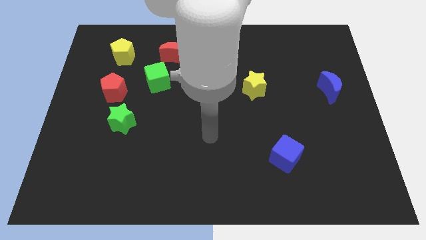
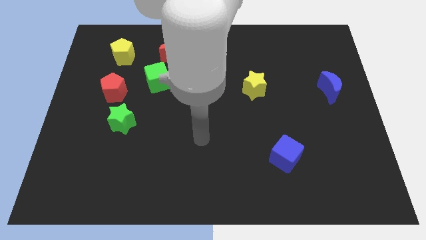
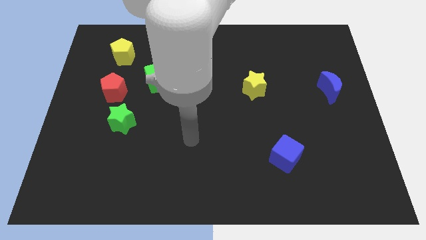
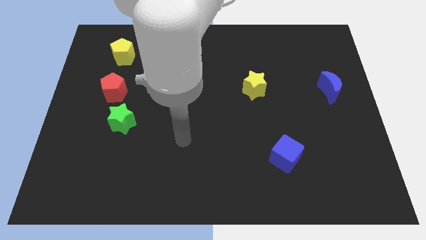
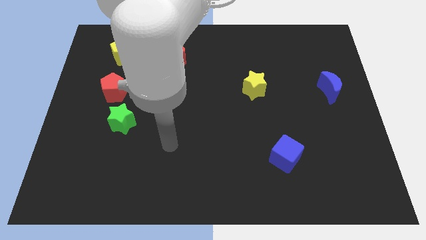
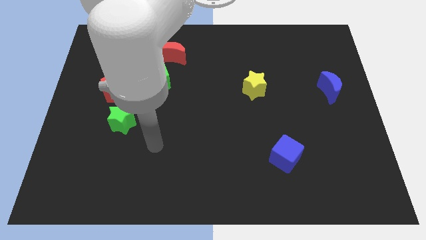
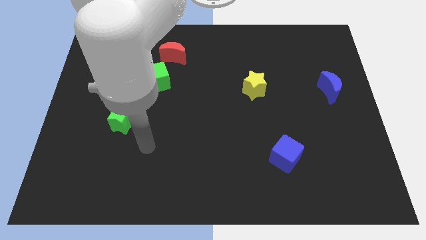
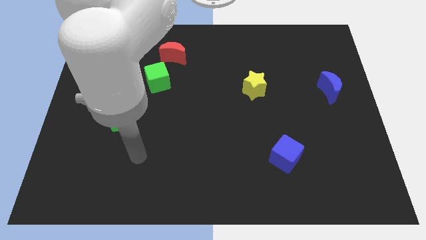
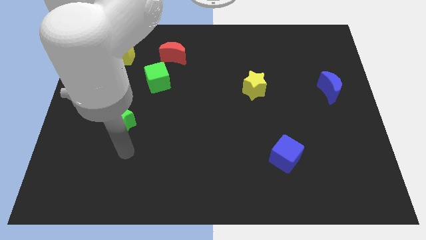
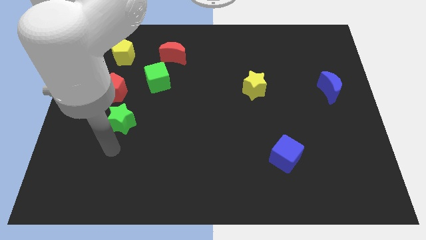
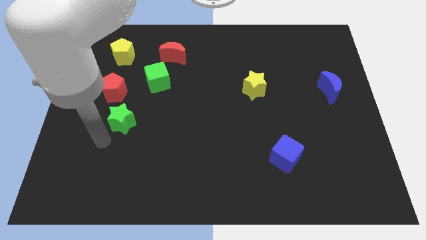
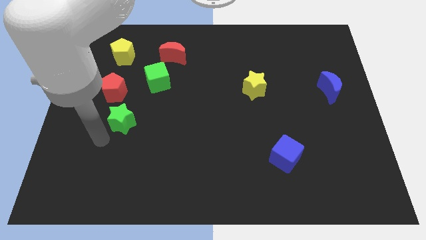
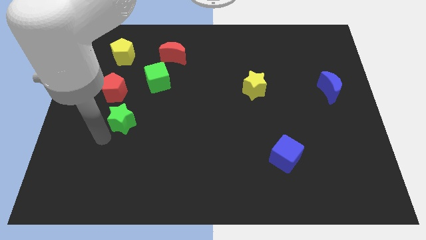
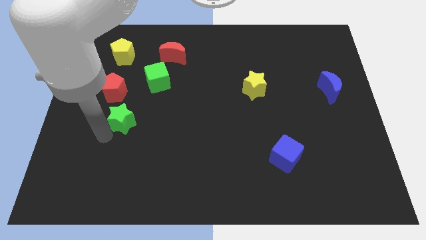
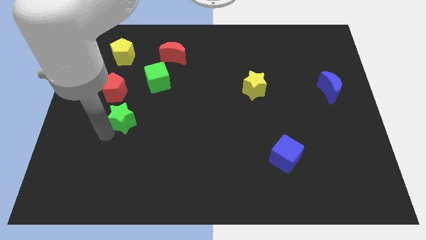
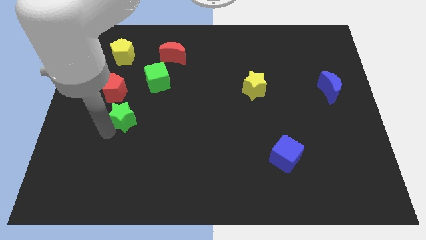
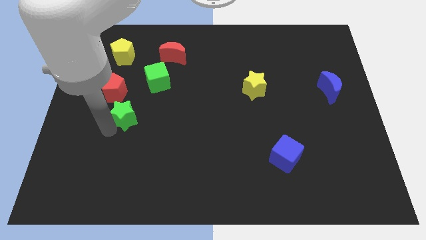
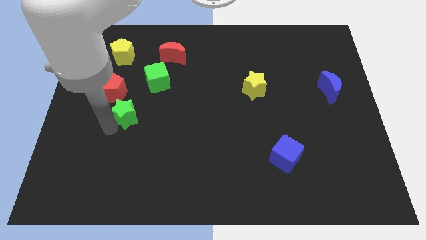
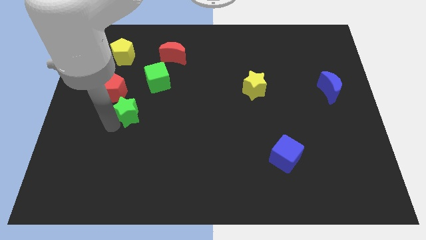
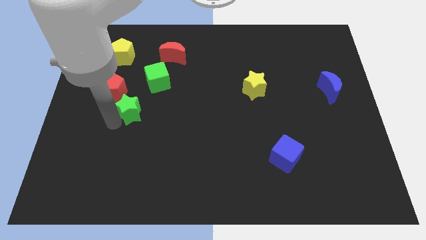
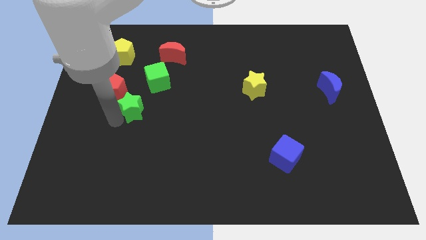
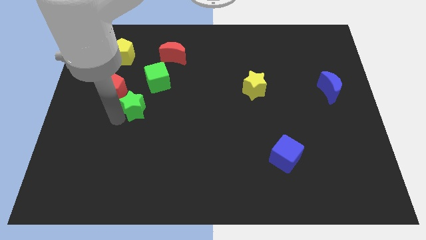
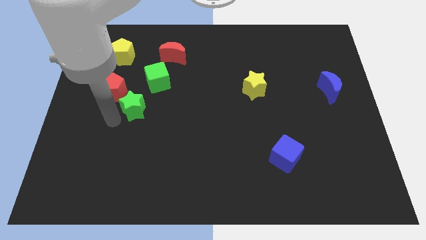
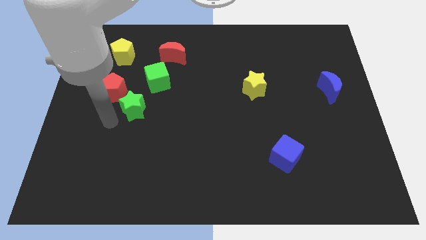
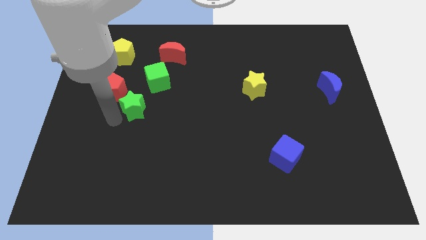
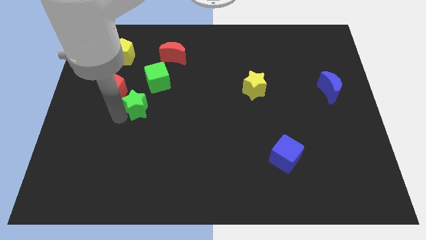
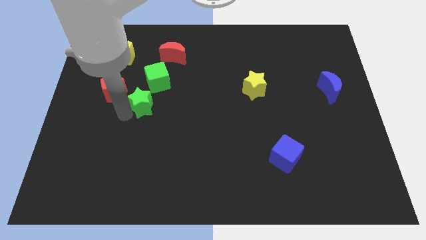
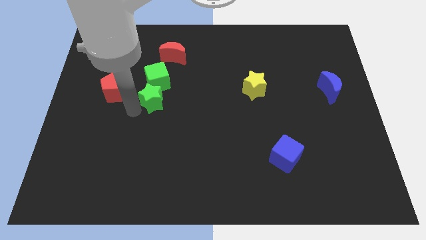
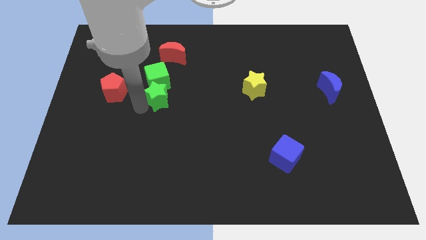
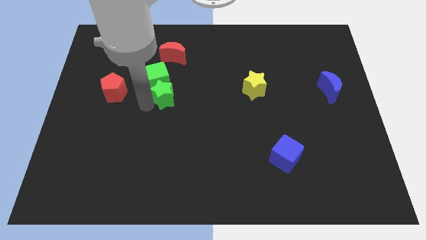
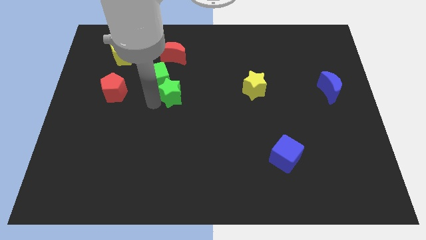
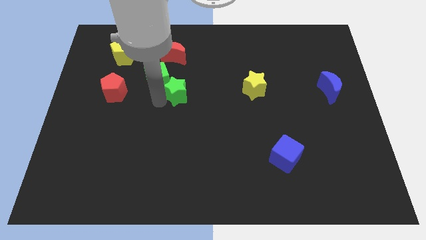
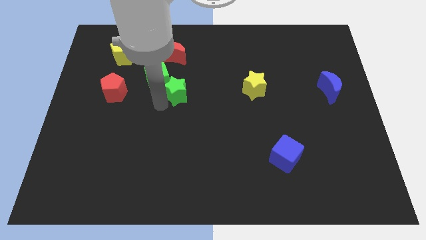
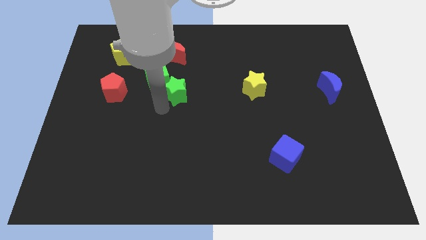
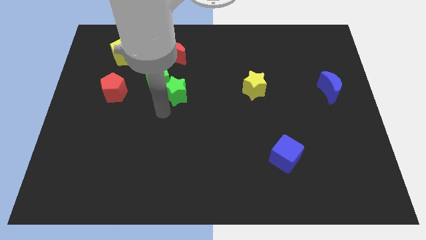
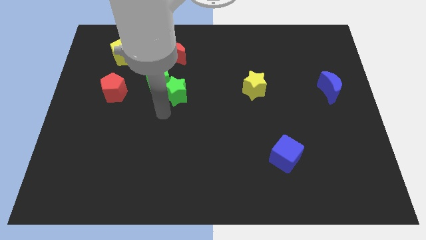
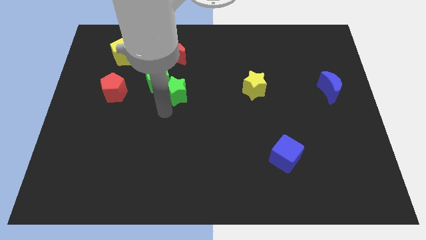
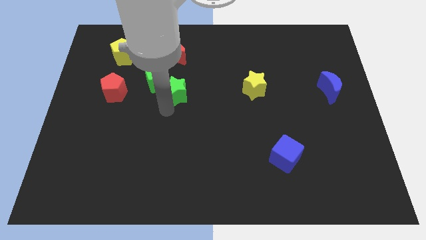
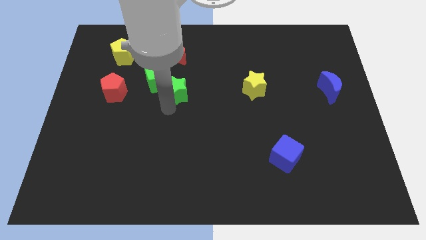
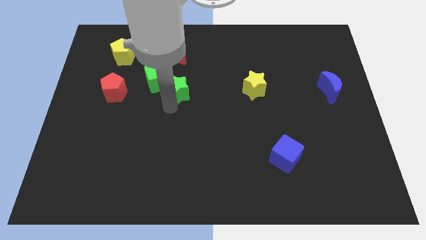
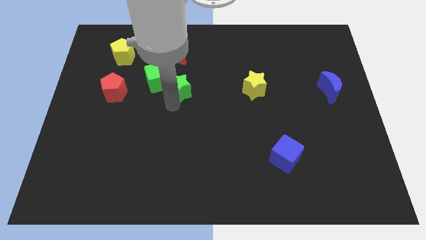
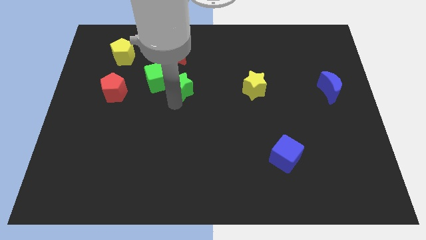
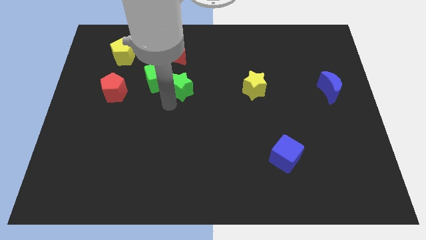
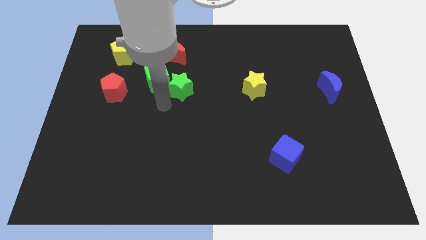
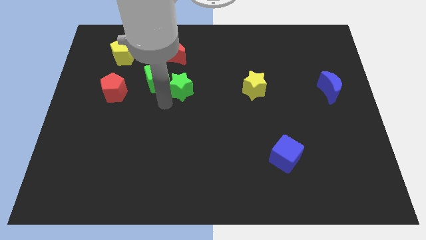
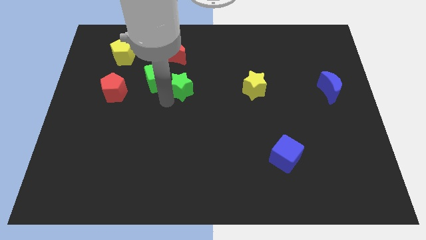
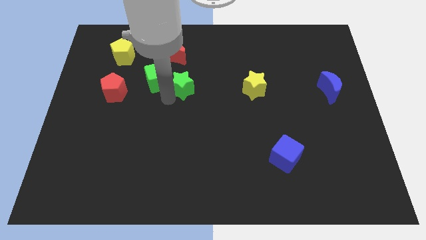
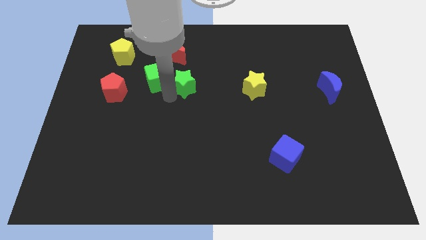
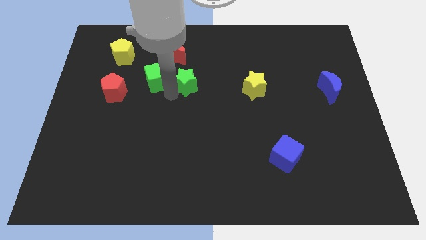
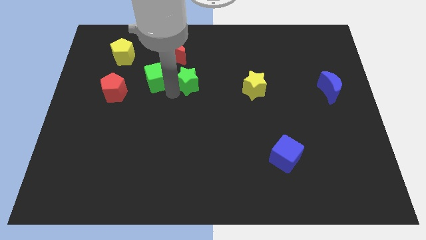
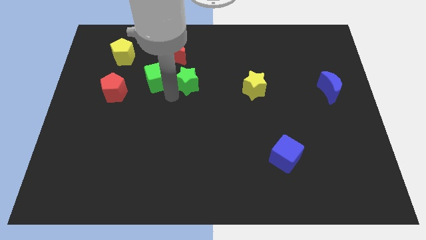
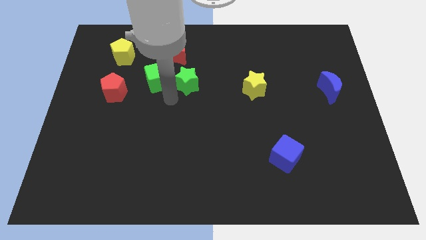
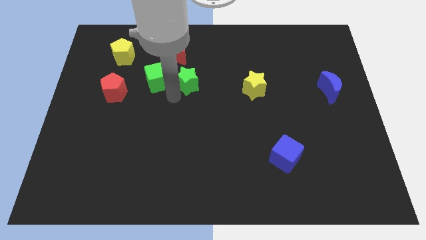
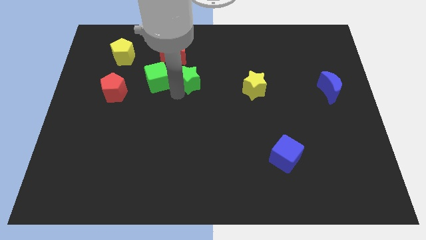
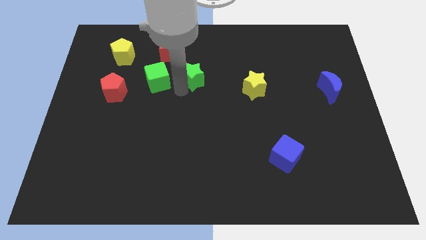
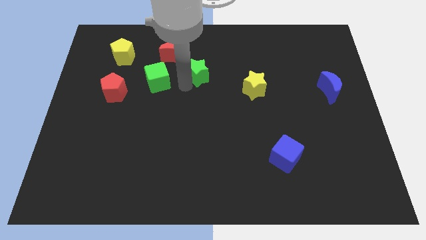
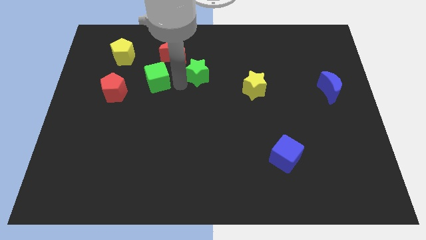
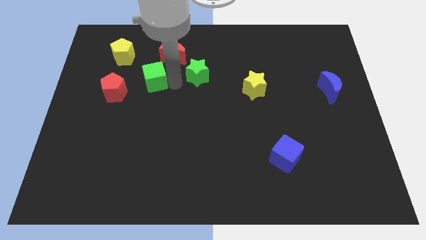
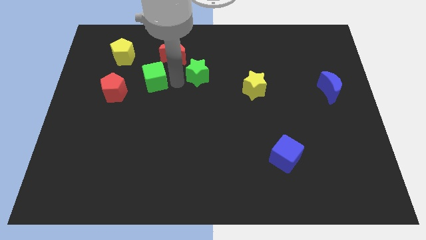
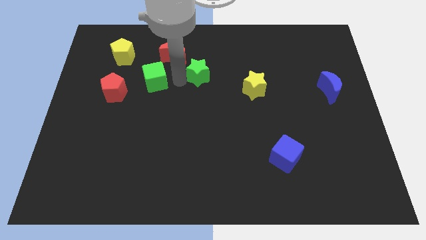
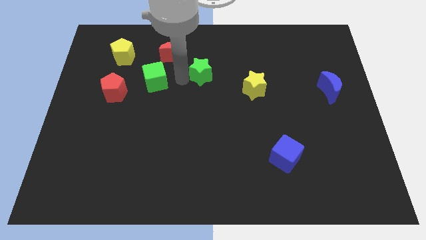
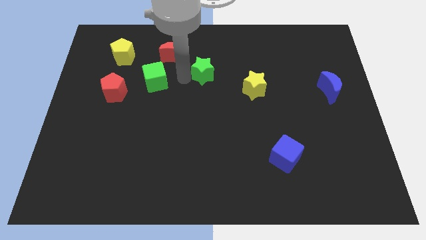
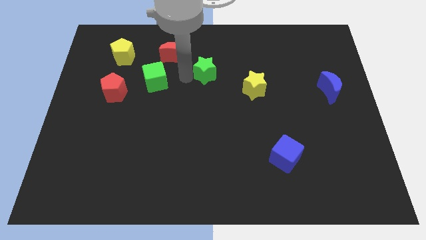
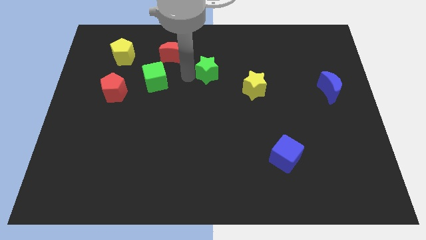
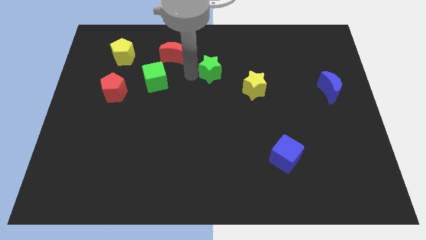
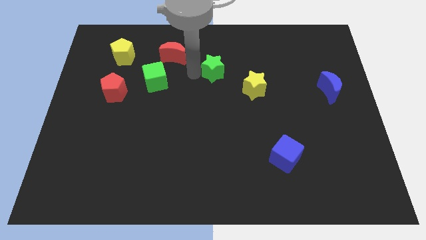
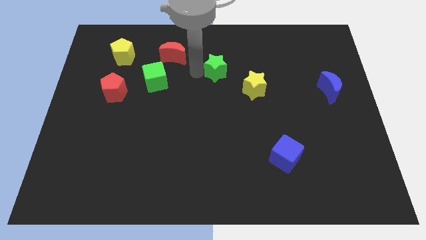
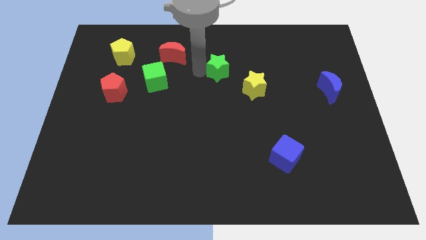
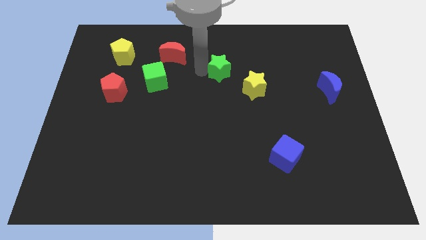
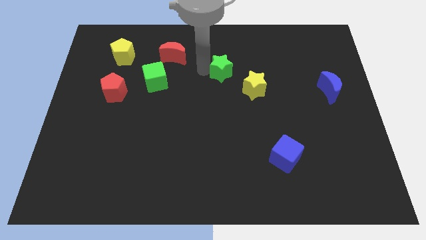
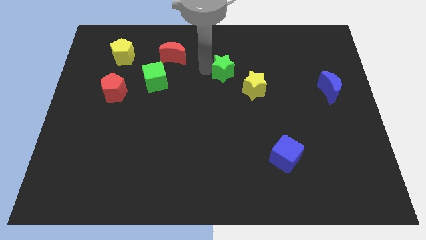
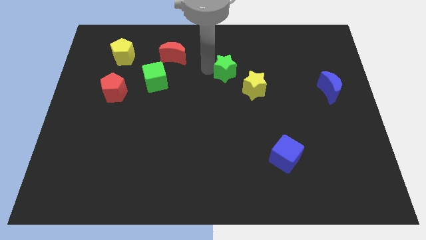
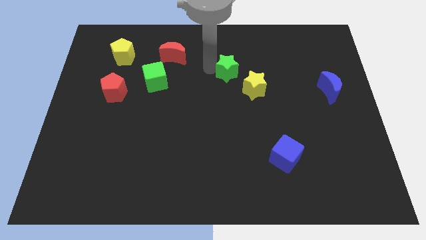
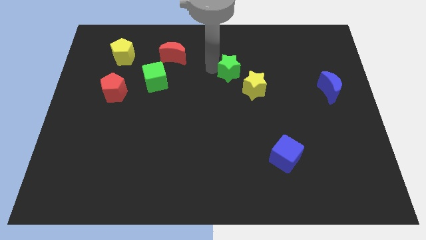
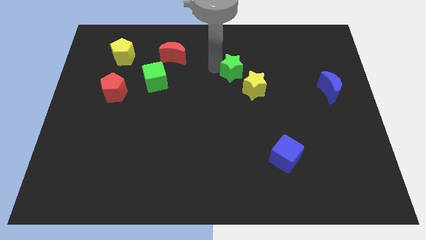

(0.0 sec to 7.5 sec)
push the green star to the top of the yellow star
